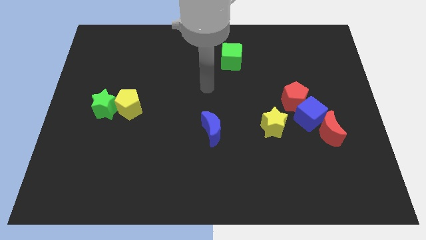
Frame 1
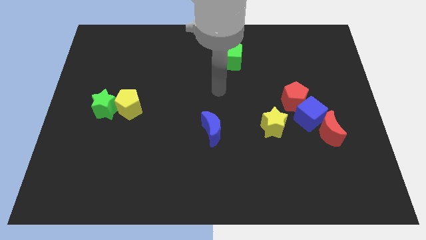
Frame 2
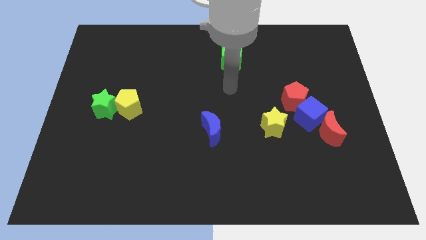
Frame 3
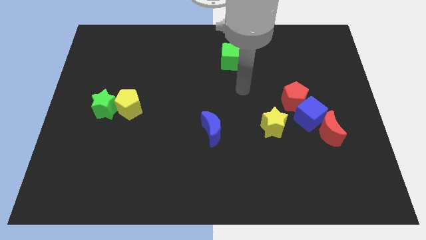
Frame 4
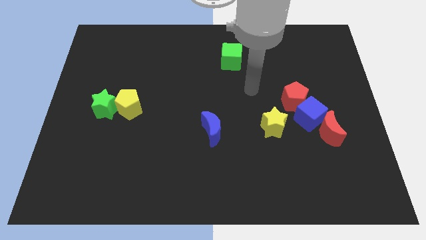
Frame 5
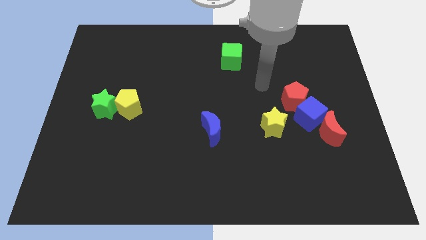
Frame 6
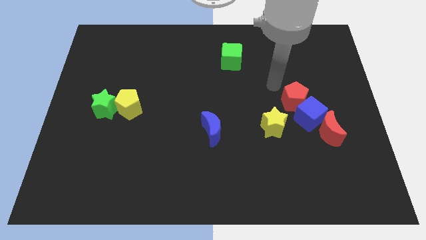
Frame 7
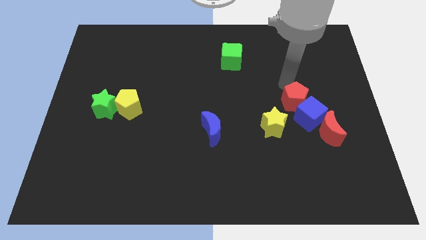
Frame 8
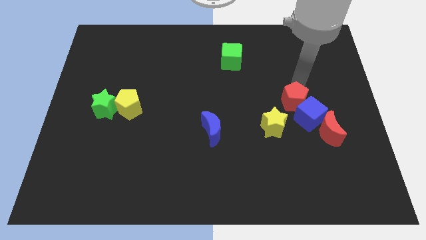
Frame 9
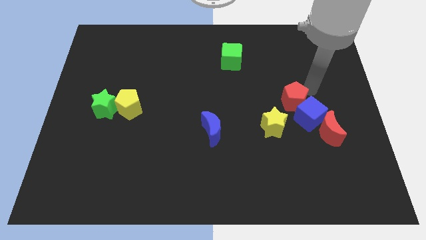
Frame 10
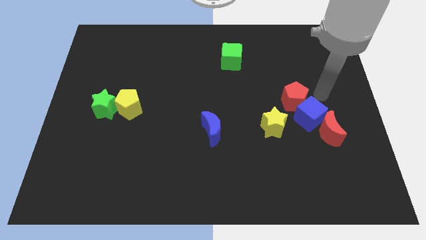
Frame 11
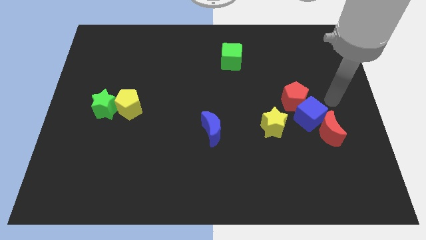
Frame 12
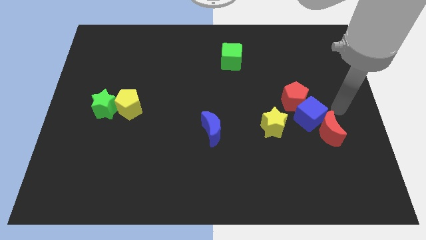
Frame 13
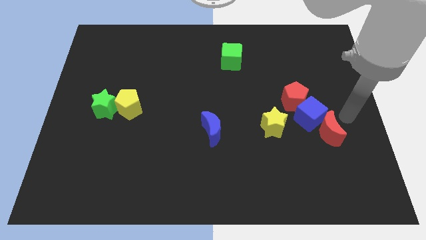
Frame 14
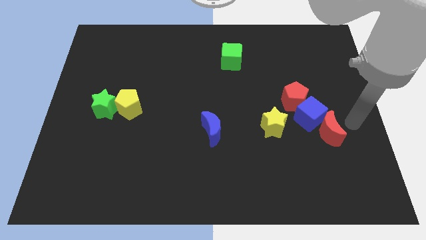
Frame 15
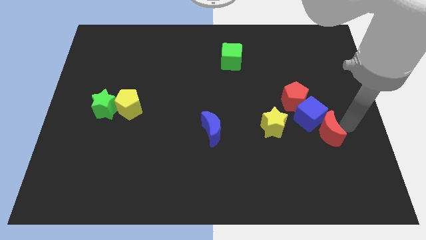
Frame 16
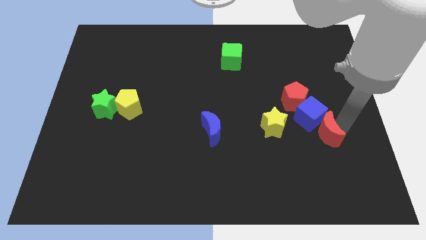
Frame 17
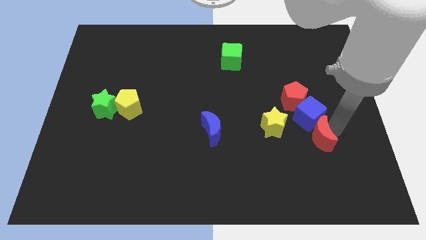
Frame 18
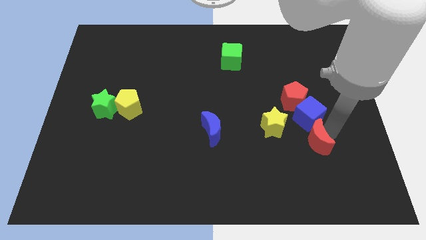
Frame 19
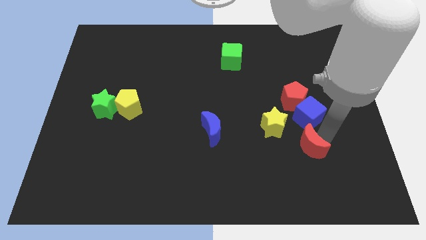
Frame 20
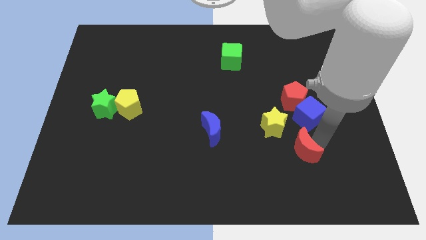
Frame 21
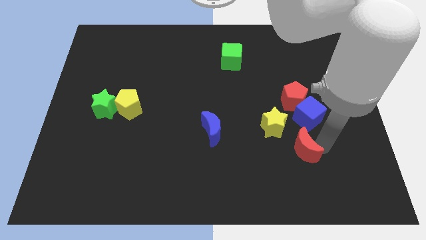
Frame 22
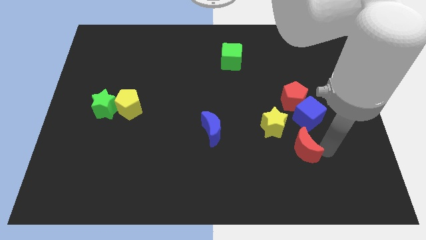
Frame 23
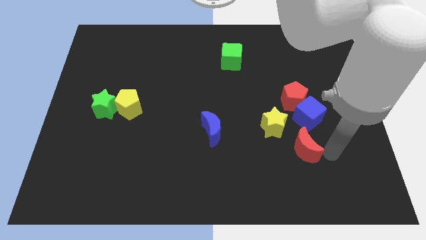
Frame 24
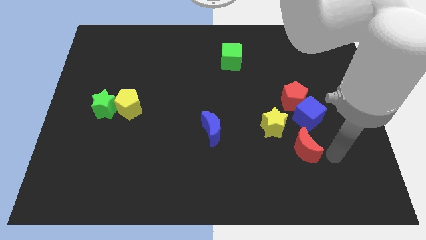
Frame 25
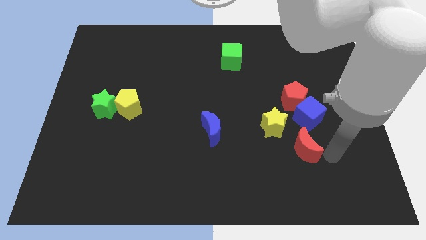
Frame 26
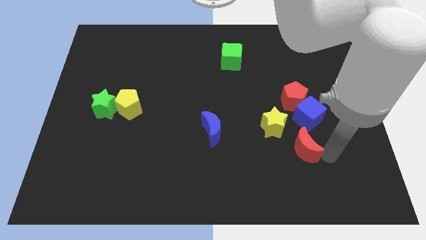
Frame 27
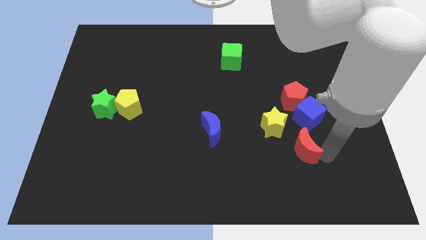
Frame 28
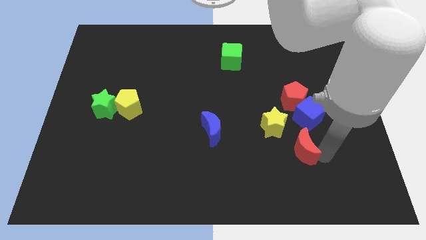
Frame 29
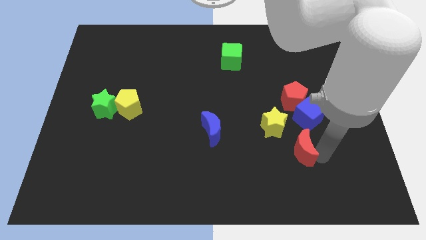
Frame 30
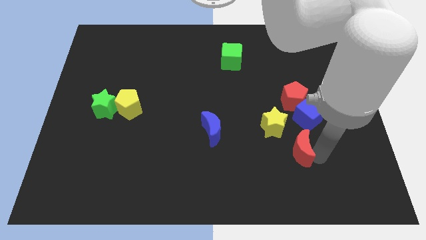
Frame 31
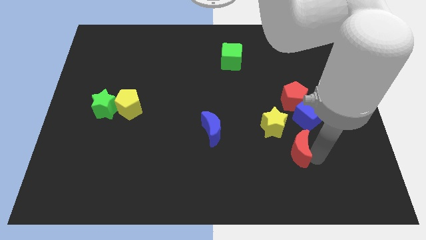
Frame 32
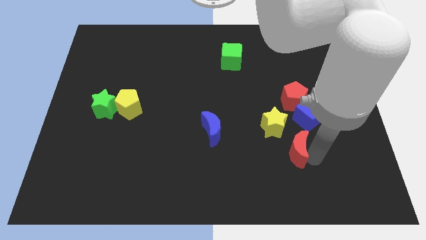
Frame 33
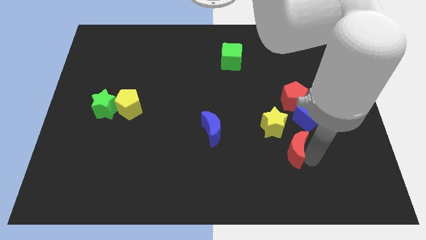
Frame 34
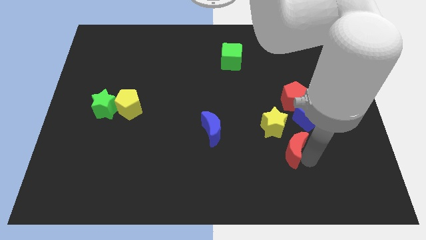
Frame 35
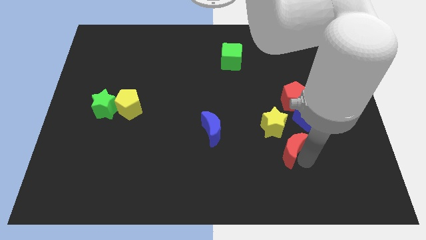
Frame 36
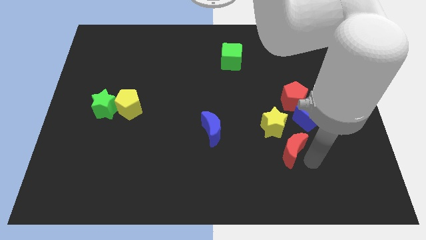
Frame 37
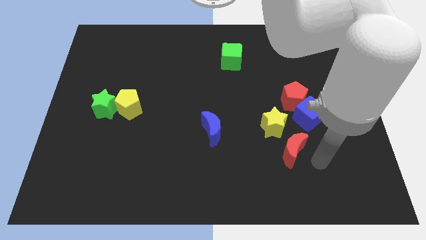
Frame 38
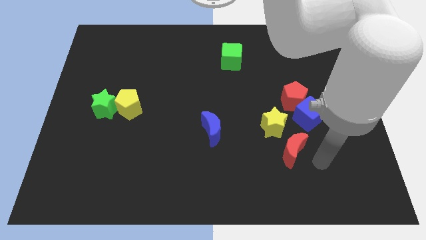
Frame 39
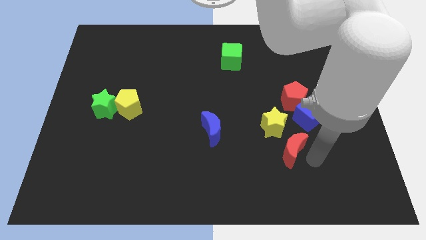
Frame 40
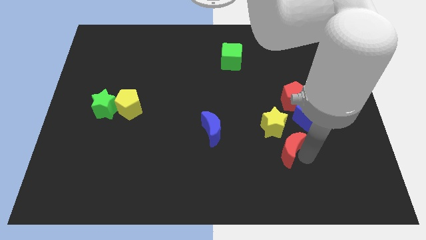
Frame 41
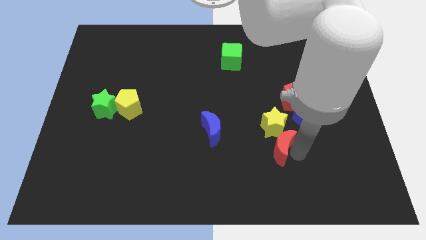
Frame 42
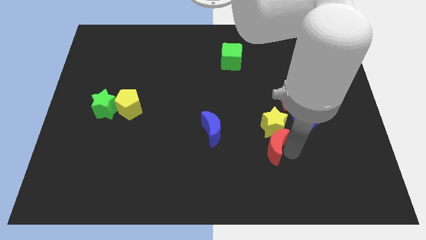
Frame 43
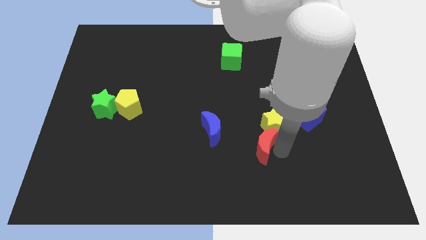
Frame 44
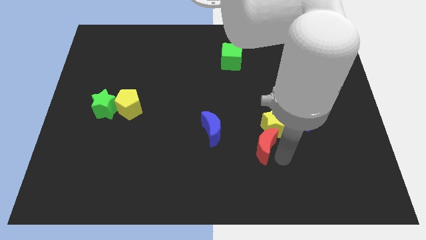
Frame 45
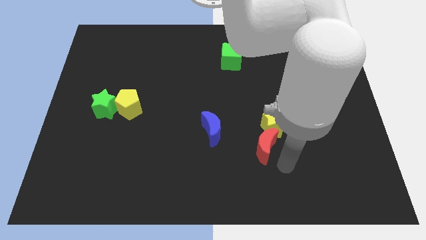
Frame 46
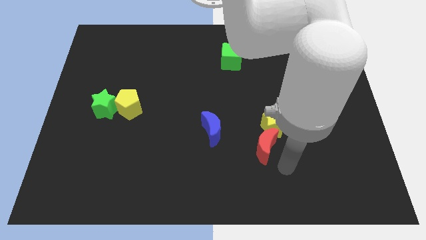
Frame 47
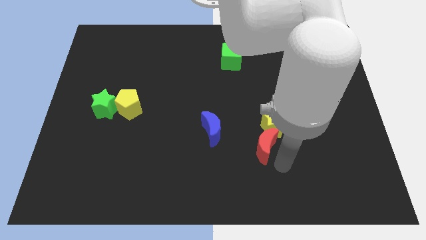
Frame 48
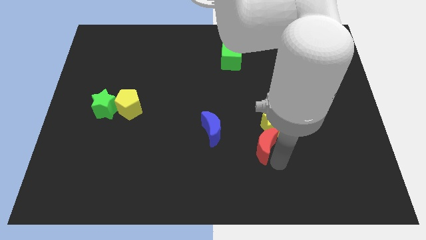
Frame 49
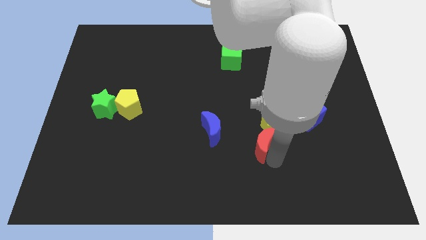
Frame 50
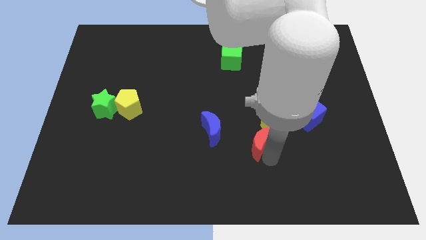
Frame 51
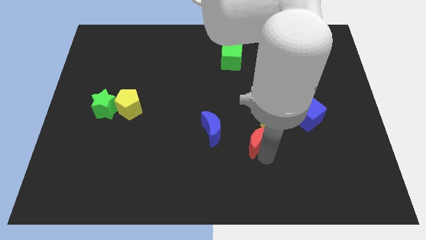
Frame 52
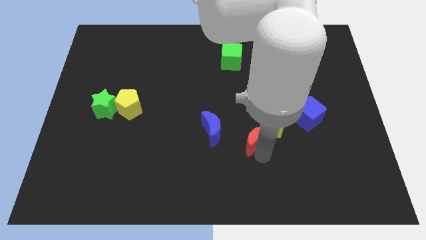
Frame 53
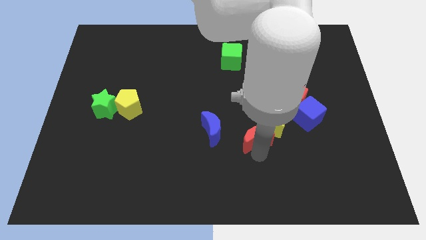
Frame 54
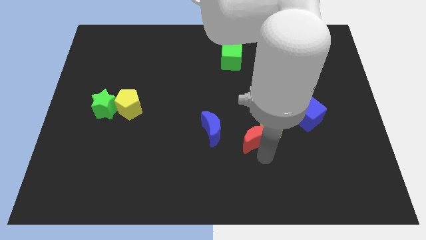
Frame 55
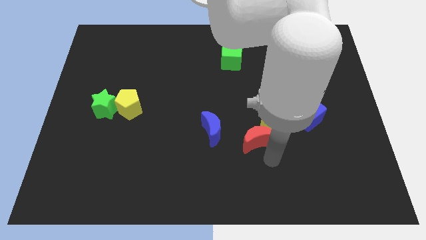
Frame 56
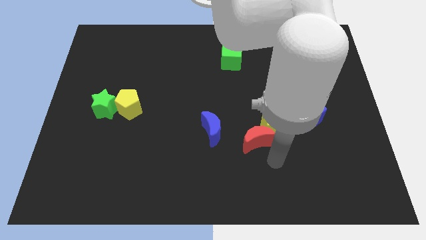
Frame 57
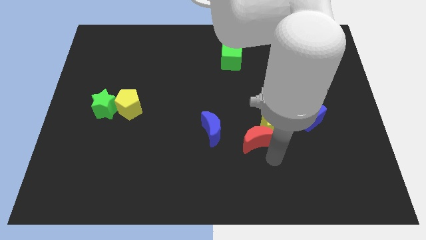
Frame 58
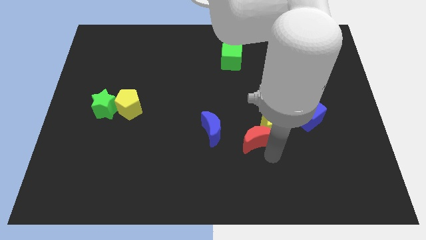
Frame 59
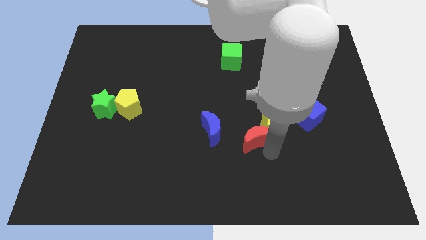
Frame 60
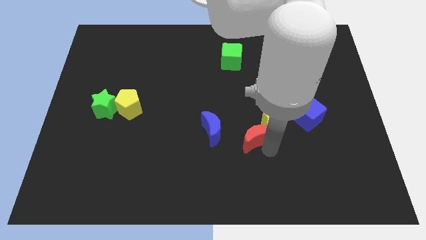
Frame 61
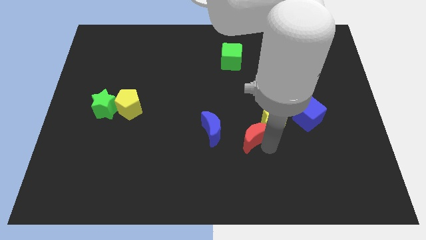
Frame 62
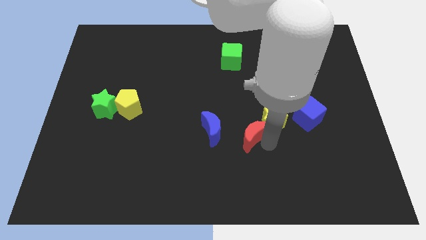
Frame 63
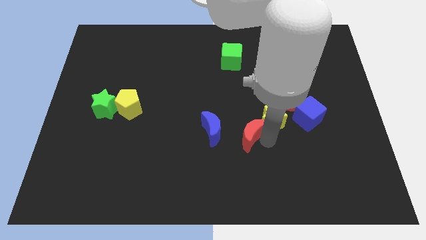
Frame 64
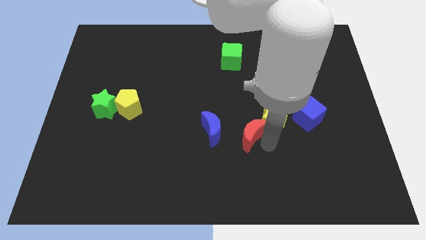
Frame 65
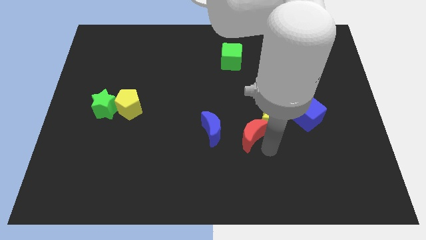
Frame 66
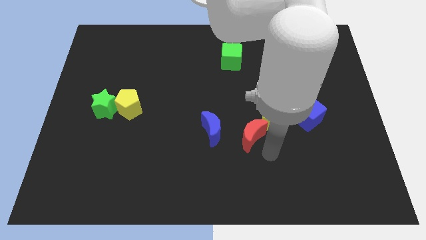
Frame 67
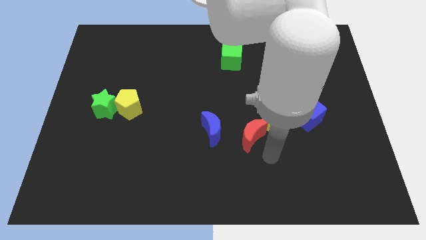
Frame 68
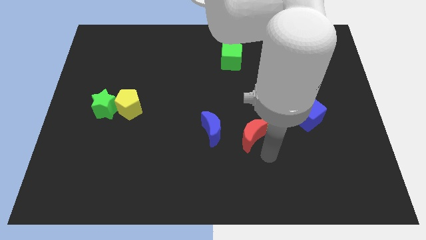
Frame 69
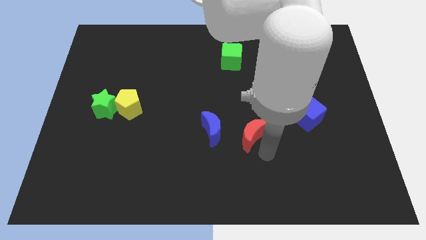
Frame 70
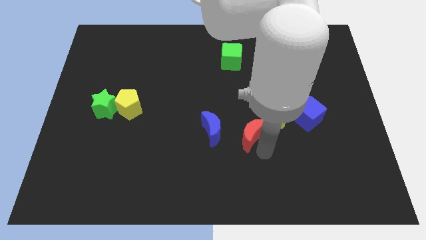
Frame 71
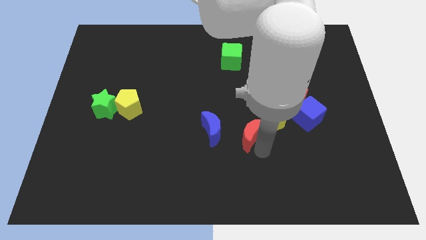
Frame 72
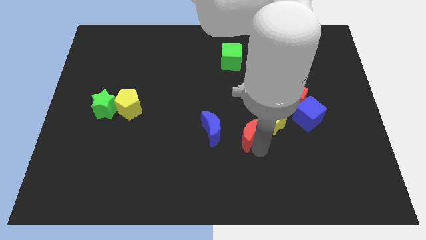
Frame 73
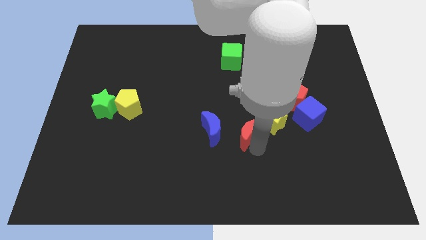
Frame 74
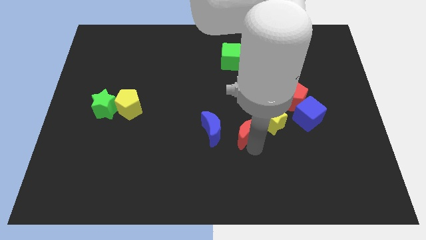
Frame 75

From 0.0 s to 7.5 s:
push the red moon to the middle of the board
